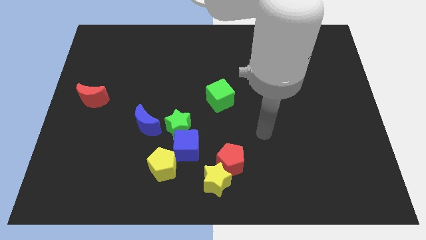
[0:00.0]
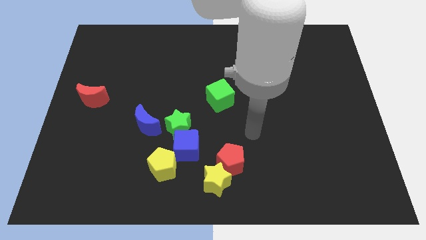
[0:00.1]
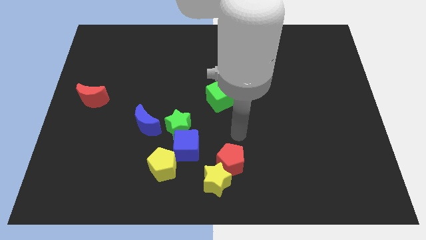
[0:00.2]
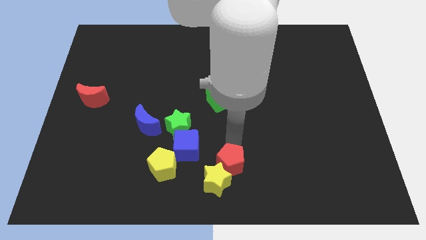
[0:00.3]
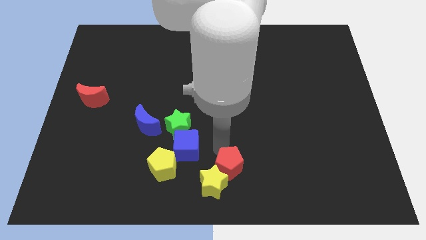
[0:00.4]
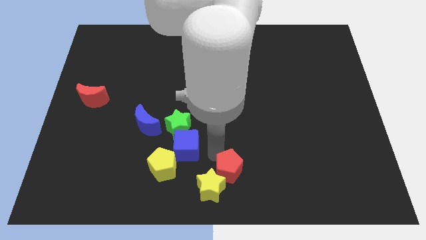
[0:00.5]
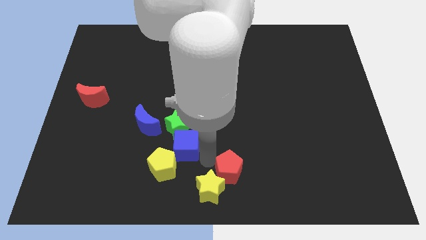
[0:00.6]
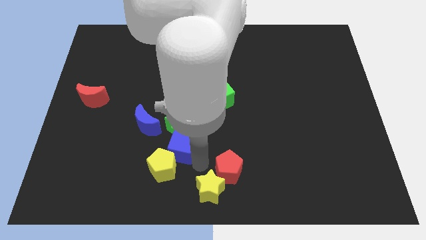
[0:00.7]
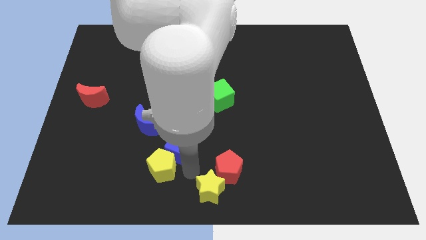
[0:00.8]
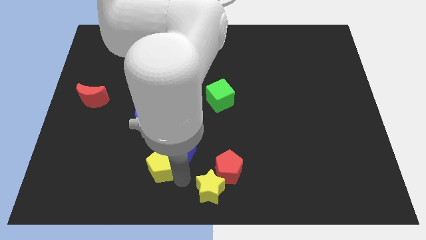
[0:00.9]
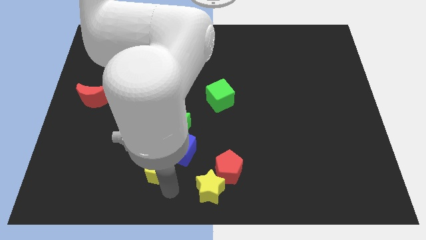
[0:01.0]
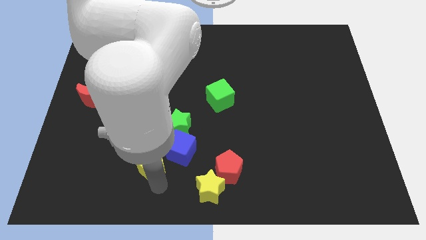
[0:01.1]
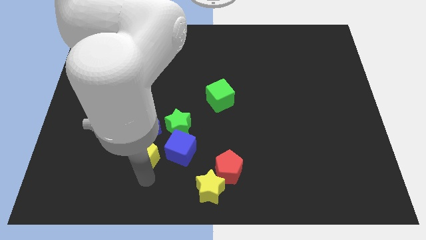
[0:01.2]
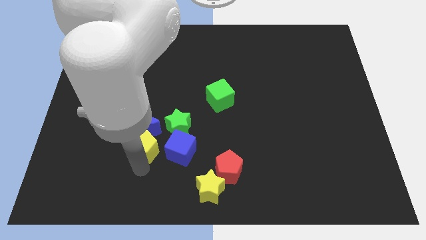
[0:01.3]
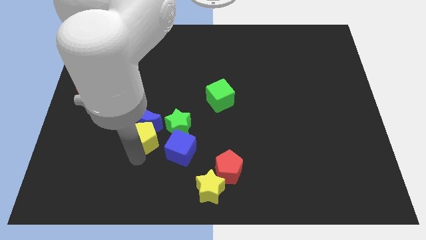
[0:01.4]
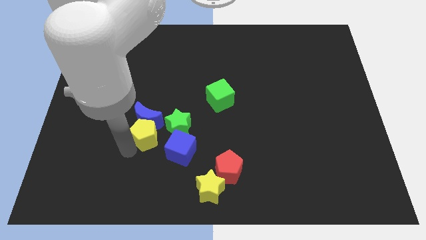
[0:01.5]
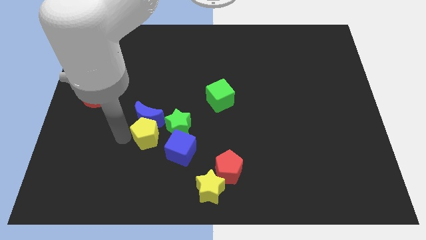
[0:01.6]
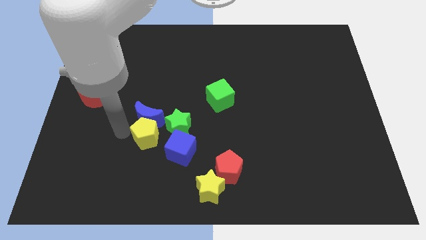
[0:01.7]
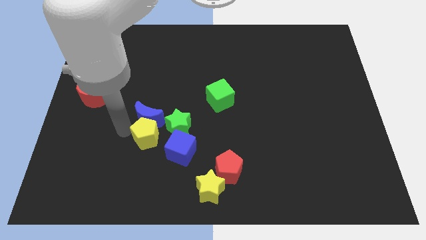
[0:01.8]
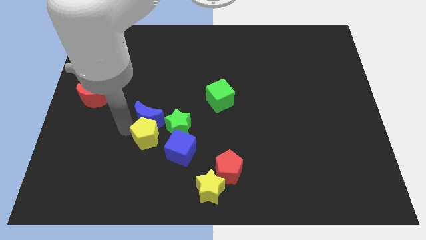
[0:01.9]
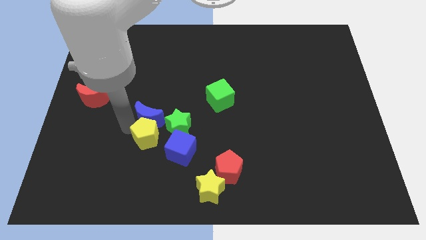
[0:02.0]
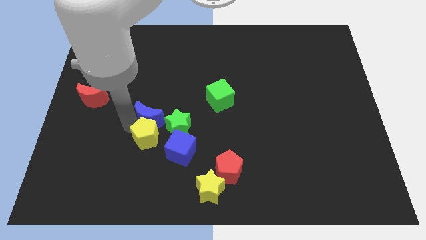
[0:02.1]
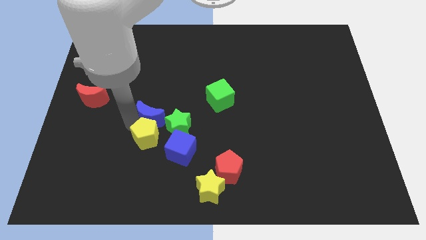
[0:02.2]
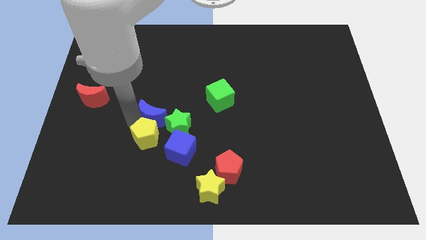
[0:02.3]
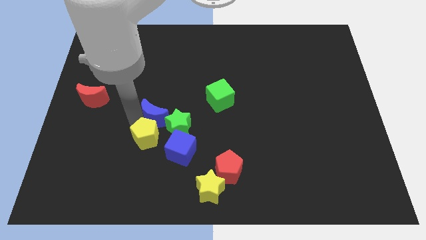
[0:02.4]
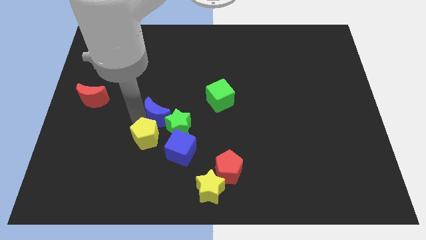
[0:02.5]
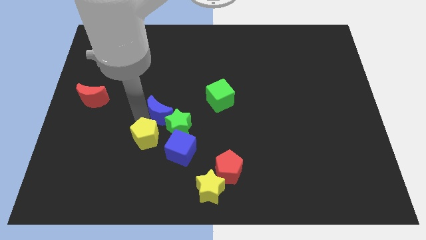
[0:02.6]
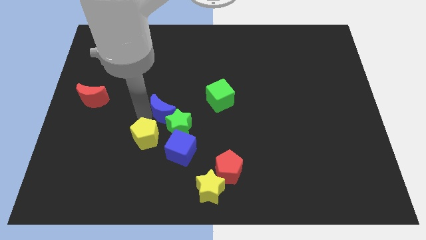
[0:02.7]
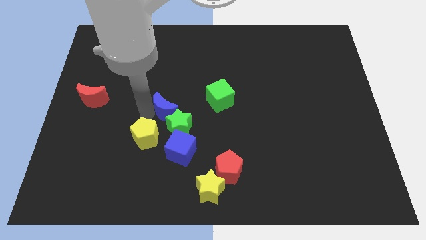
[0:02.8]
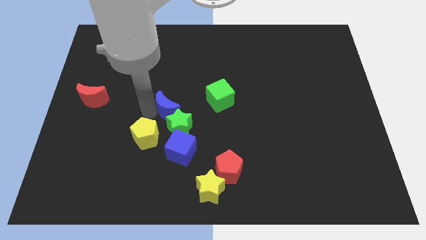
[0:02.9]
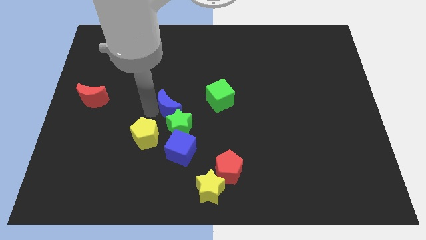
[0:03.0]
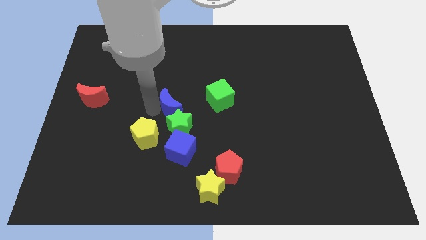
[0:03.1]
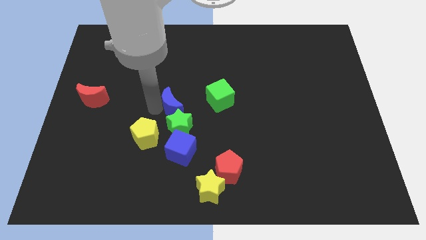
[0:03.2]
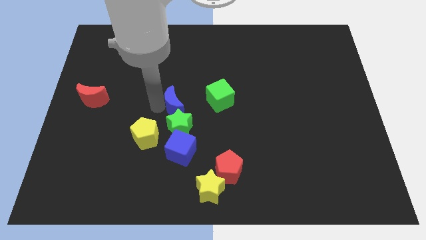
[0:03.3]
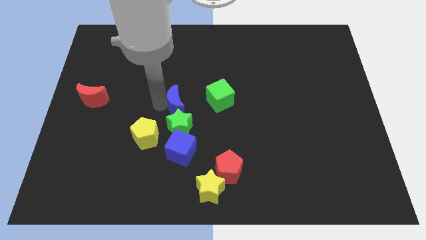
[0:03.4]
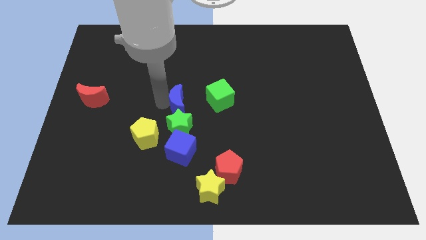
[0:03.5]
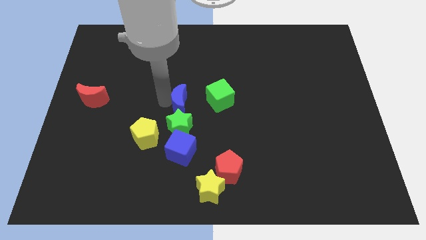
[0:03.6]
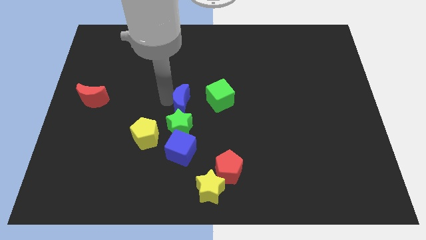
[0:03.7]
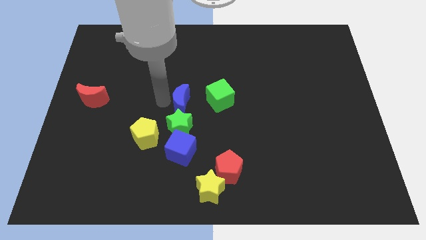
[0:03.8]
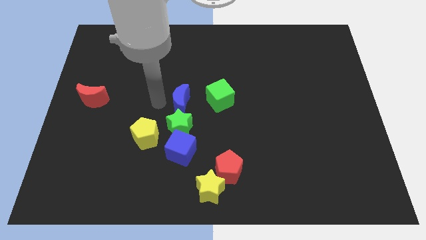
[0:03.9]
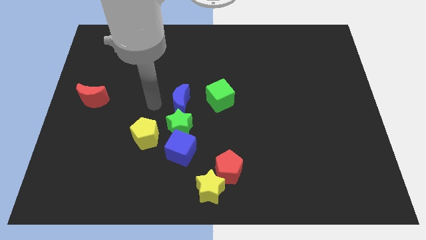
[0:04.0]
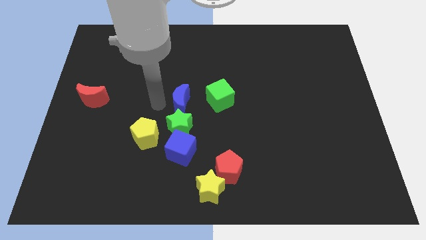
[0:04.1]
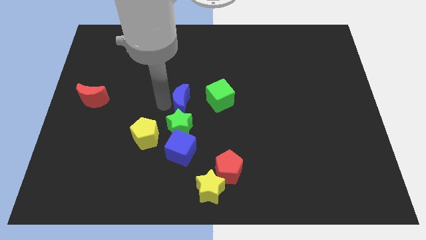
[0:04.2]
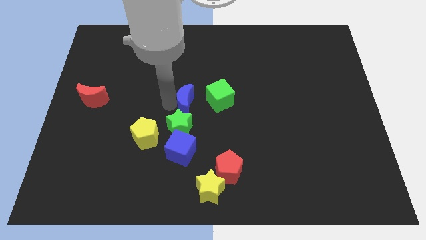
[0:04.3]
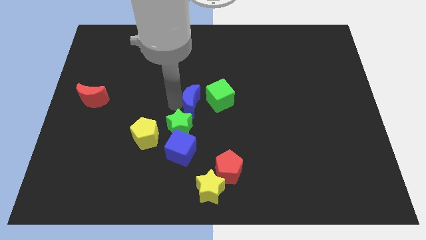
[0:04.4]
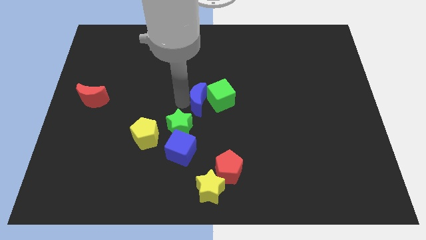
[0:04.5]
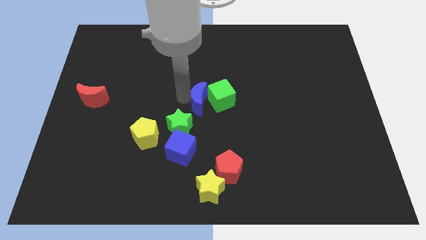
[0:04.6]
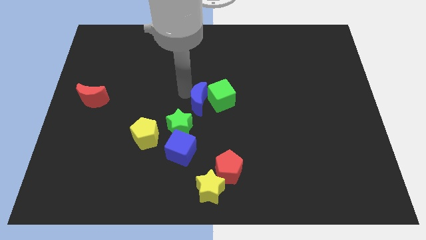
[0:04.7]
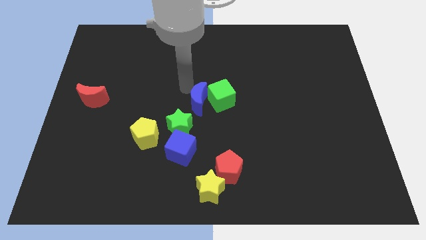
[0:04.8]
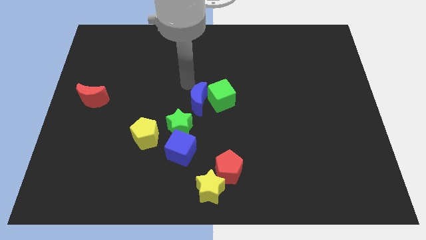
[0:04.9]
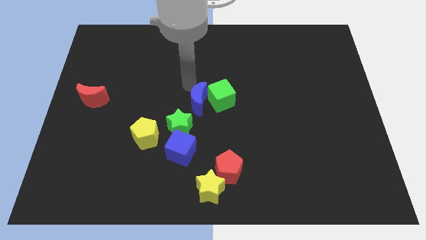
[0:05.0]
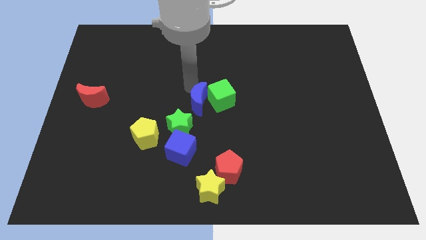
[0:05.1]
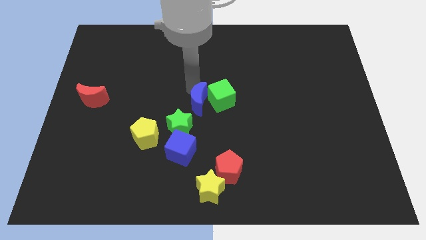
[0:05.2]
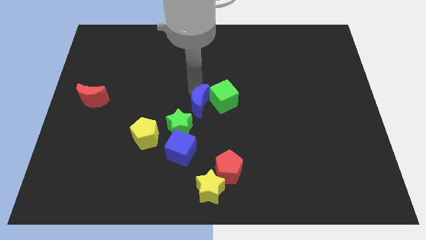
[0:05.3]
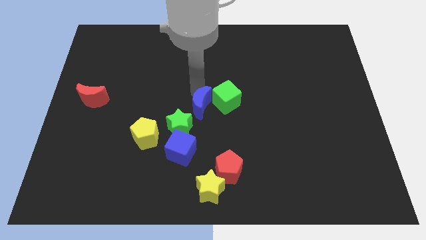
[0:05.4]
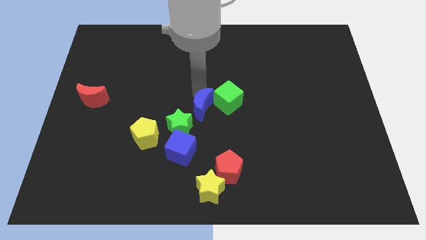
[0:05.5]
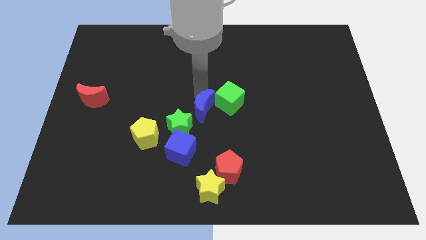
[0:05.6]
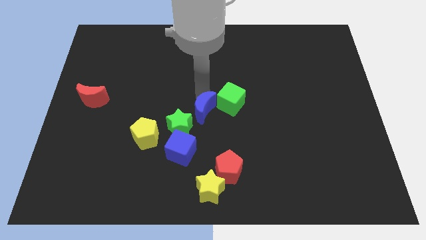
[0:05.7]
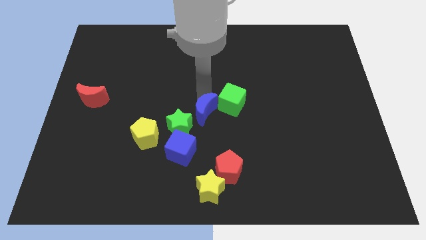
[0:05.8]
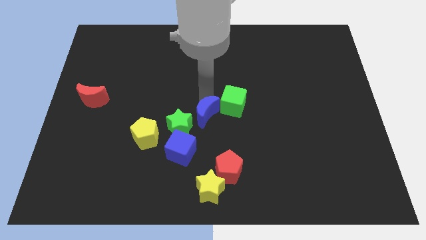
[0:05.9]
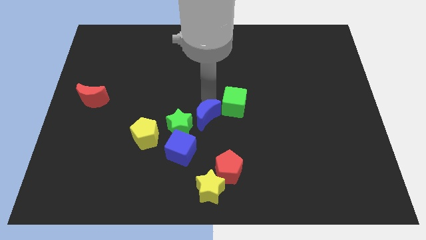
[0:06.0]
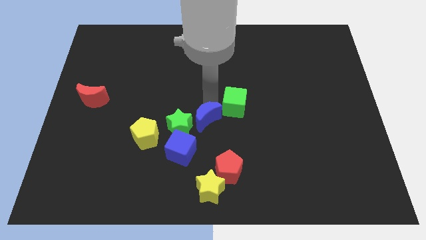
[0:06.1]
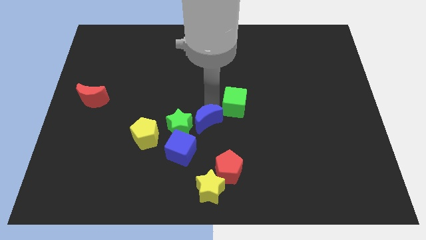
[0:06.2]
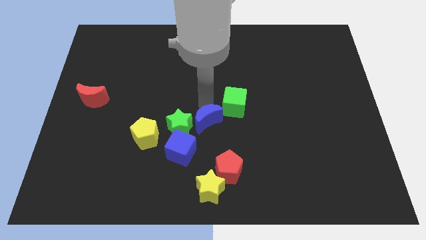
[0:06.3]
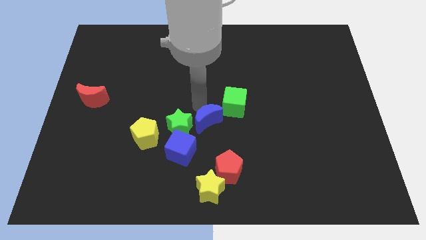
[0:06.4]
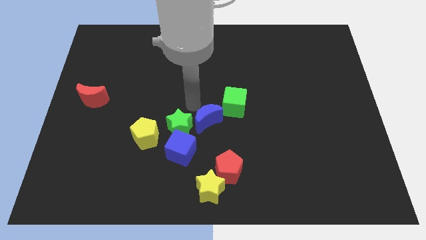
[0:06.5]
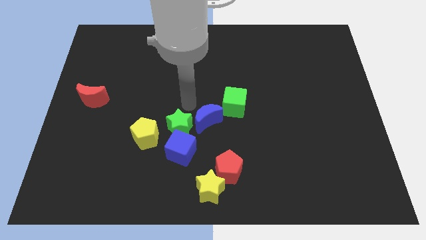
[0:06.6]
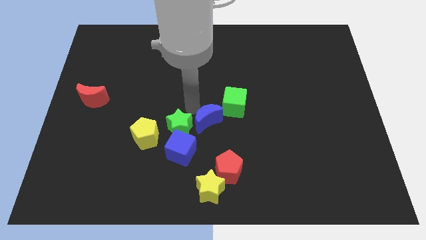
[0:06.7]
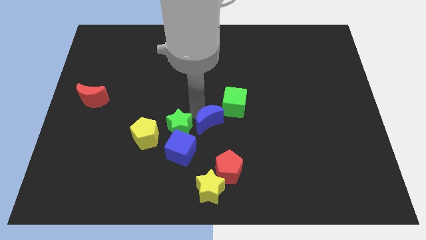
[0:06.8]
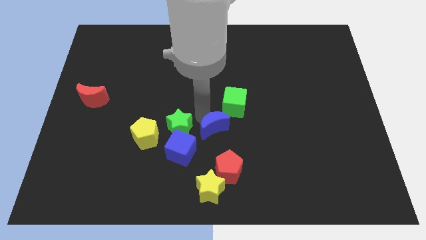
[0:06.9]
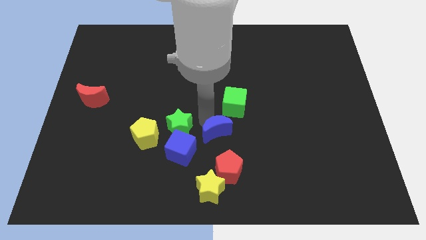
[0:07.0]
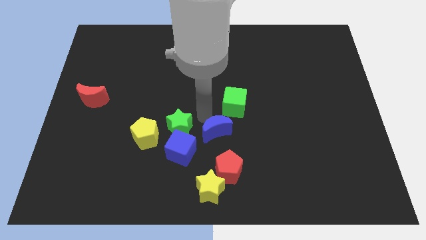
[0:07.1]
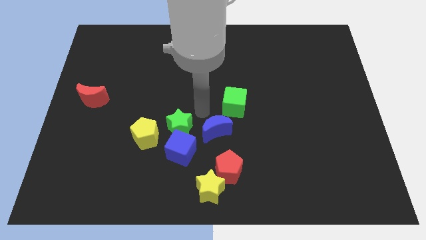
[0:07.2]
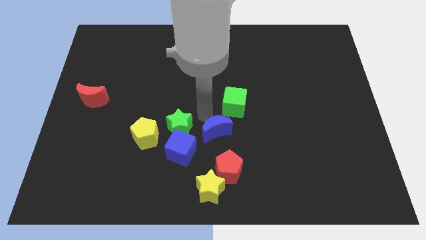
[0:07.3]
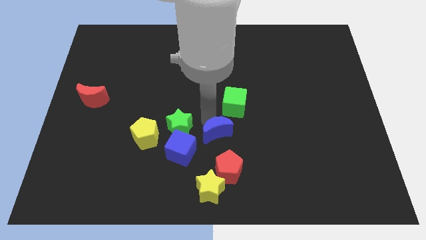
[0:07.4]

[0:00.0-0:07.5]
move the blue moon to the right of the blue cube
